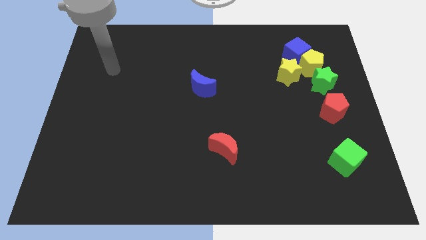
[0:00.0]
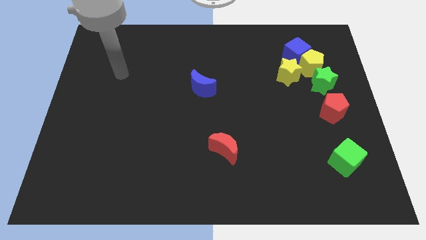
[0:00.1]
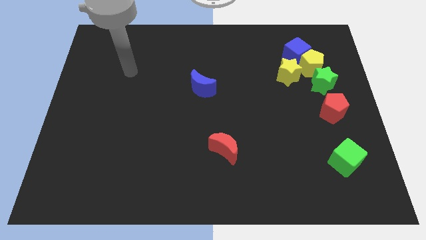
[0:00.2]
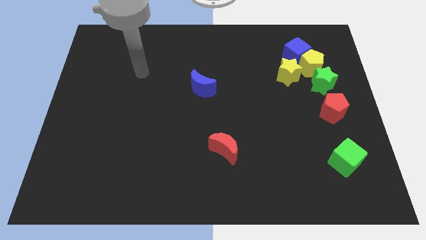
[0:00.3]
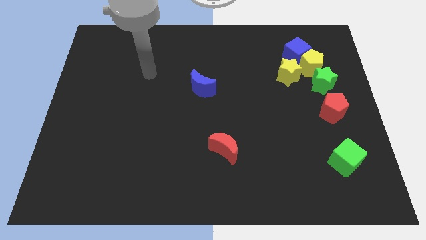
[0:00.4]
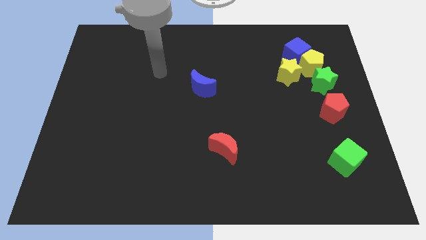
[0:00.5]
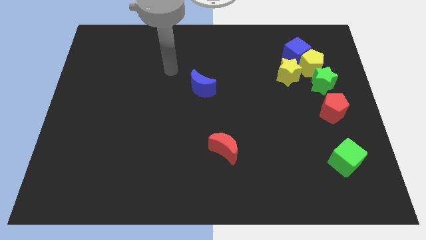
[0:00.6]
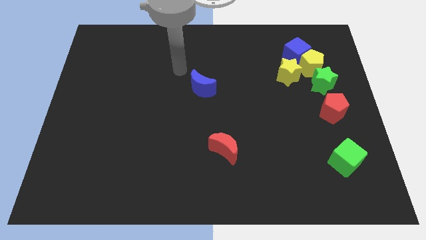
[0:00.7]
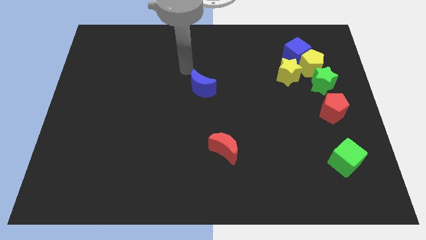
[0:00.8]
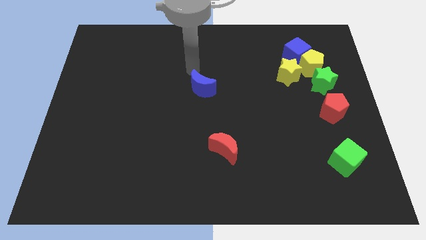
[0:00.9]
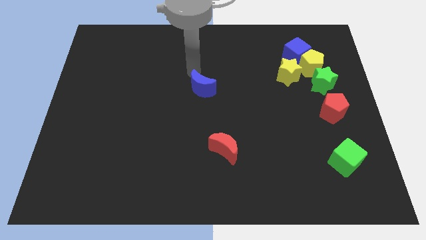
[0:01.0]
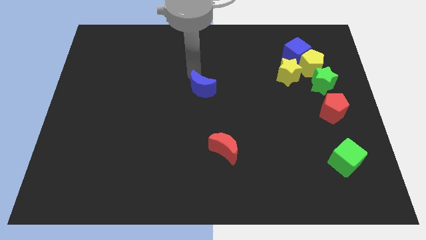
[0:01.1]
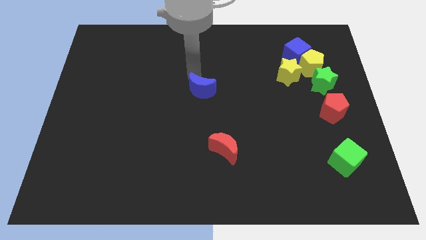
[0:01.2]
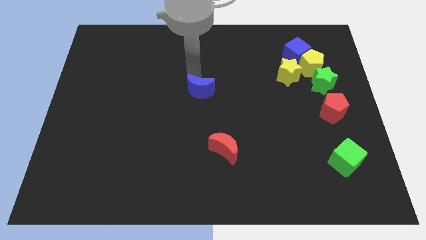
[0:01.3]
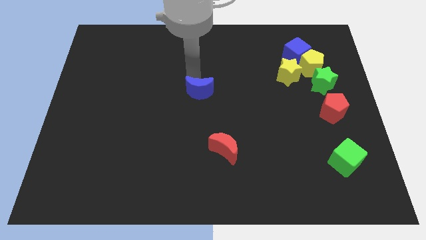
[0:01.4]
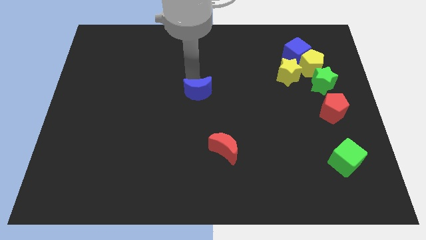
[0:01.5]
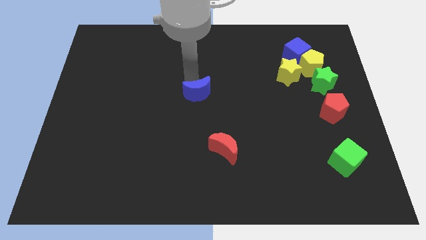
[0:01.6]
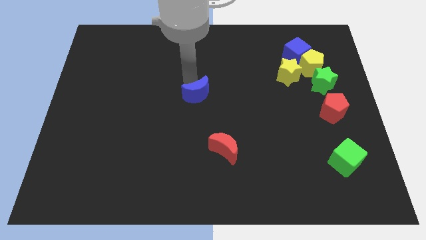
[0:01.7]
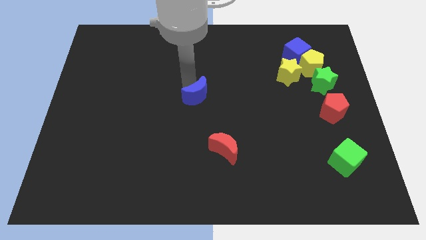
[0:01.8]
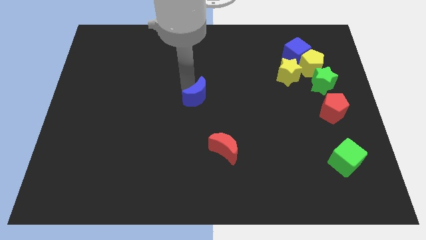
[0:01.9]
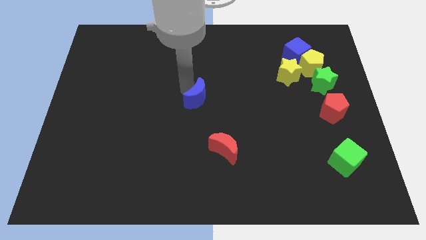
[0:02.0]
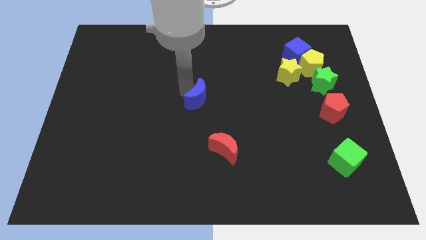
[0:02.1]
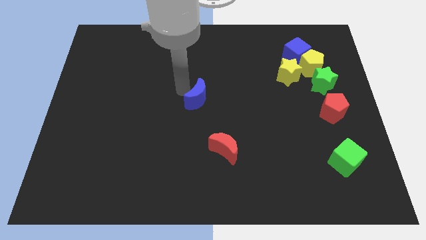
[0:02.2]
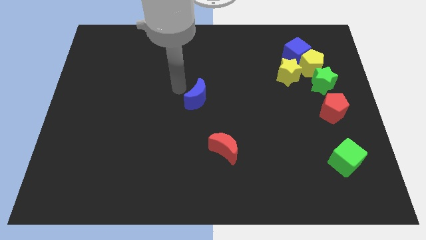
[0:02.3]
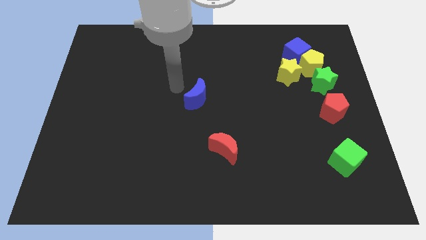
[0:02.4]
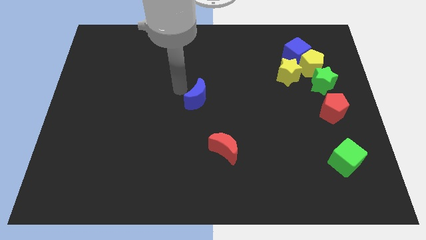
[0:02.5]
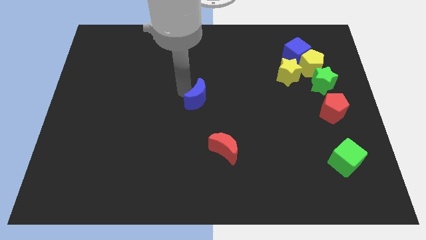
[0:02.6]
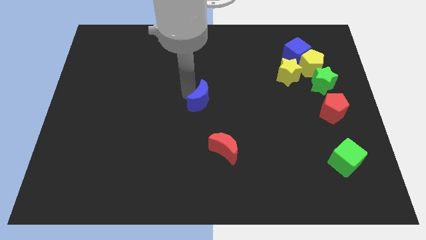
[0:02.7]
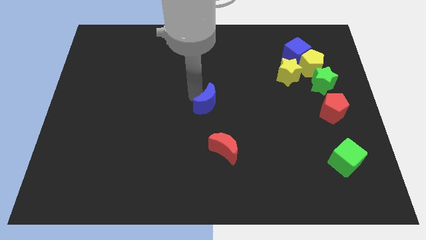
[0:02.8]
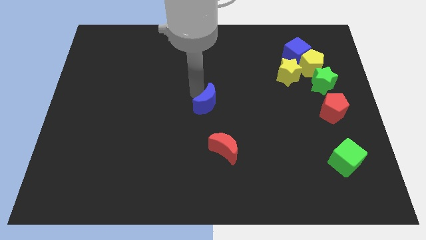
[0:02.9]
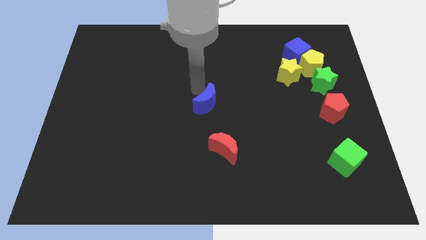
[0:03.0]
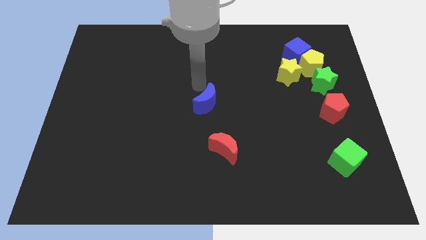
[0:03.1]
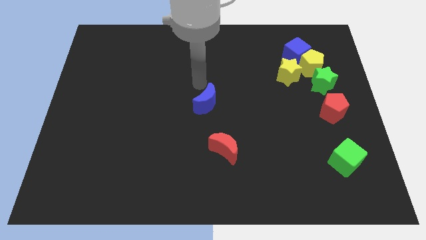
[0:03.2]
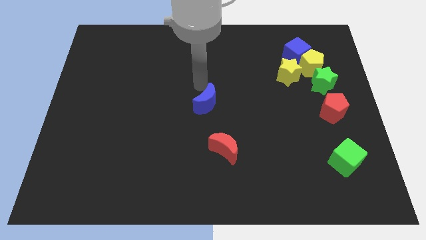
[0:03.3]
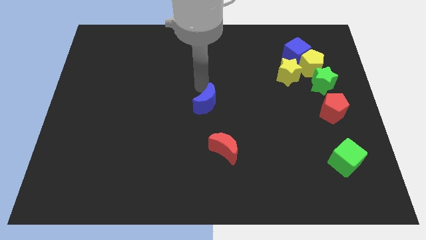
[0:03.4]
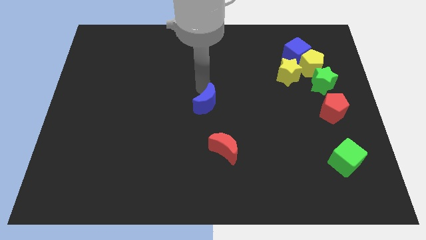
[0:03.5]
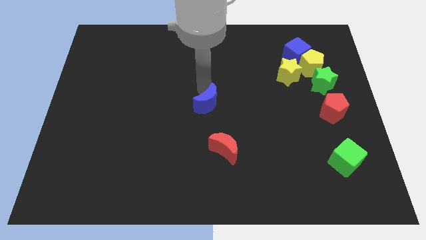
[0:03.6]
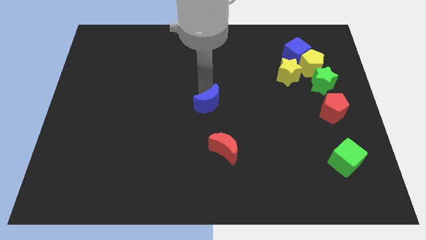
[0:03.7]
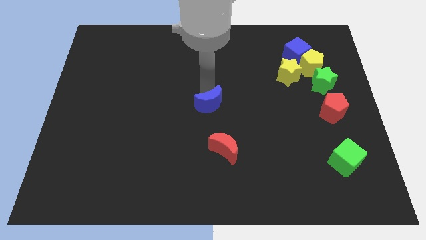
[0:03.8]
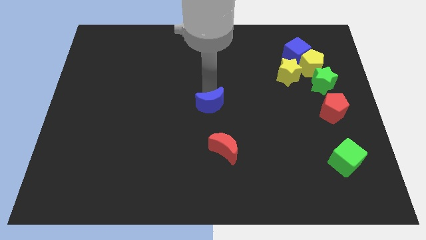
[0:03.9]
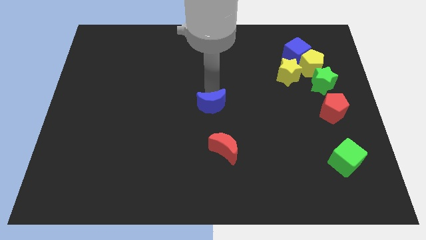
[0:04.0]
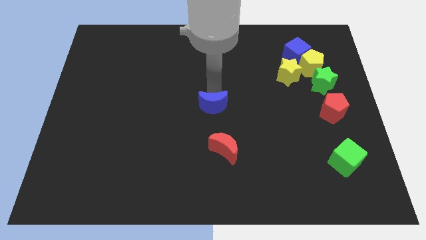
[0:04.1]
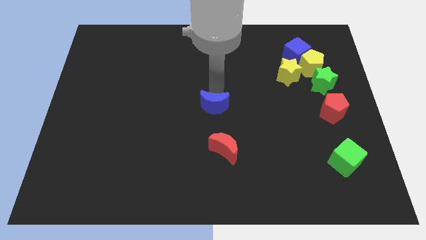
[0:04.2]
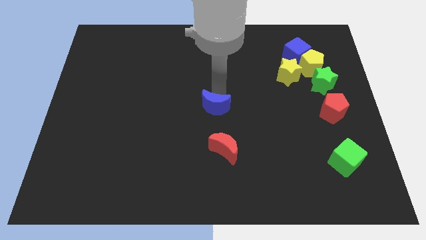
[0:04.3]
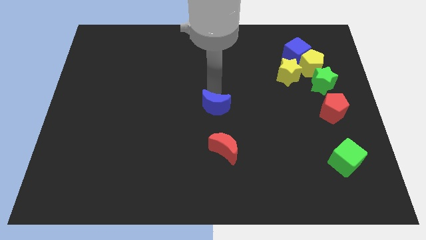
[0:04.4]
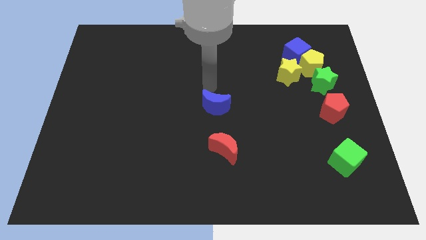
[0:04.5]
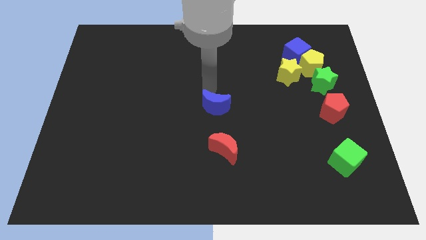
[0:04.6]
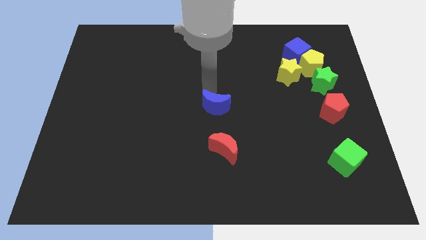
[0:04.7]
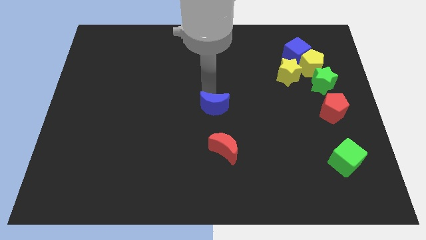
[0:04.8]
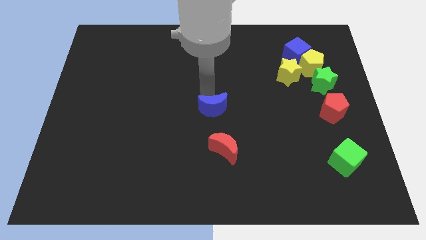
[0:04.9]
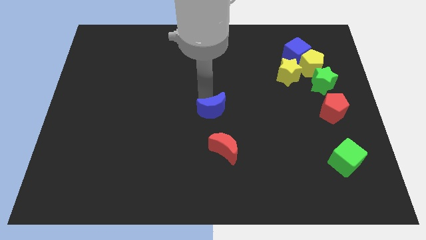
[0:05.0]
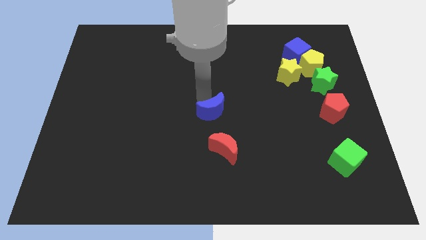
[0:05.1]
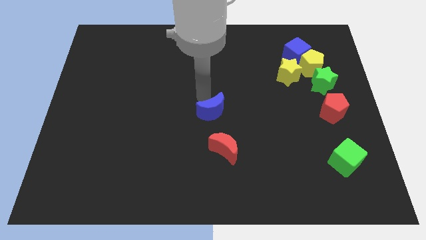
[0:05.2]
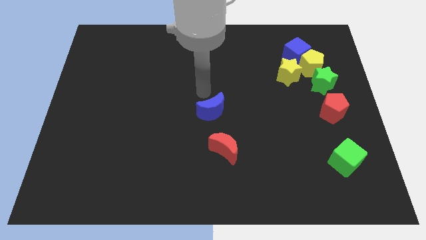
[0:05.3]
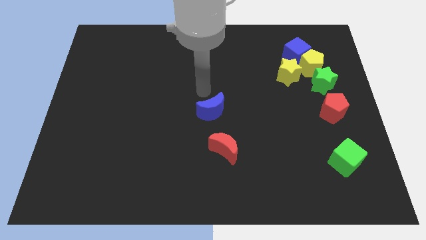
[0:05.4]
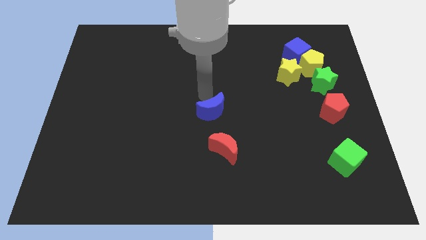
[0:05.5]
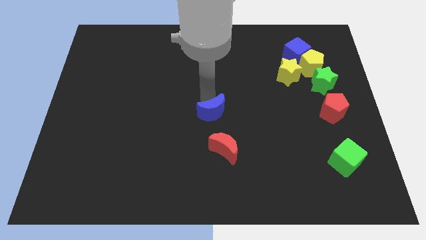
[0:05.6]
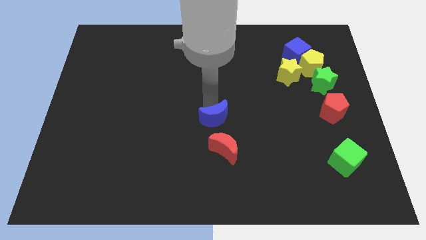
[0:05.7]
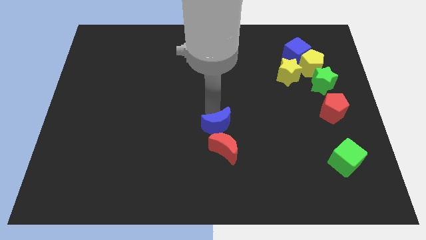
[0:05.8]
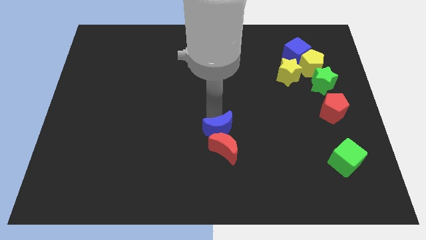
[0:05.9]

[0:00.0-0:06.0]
move the blue moon close to the red moon

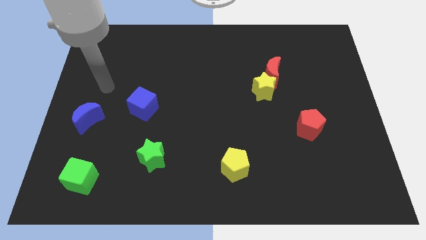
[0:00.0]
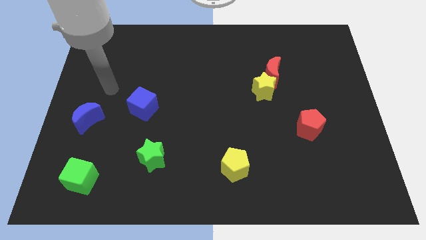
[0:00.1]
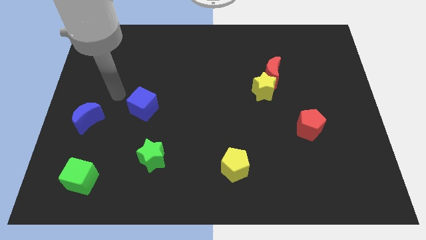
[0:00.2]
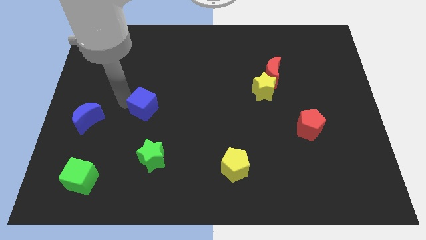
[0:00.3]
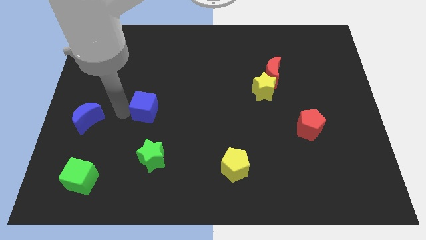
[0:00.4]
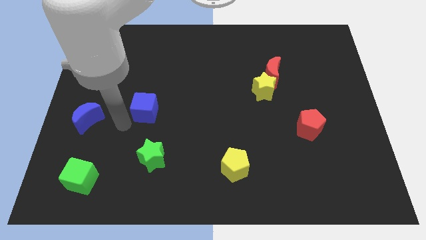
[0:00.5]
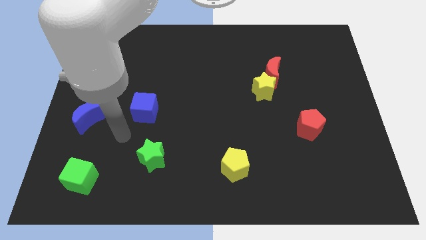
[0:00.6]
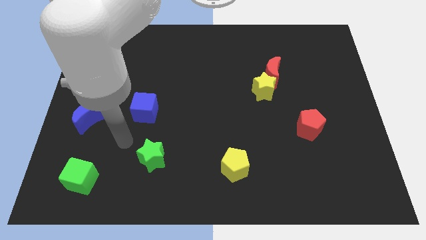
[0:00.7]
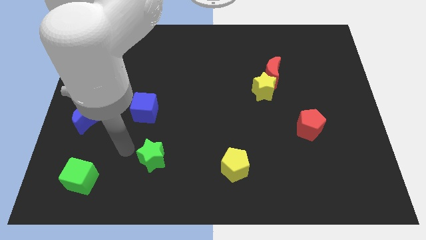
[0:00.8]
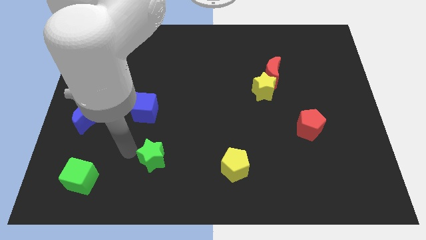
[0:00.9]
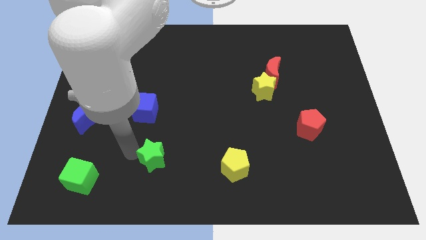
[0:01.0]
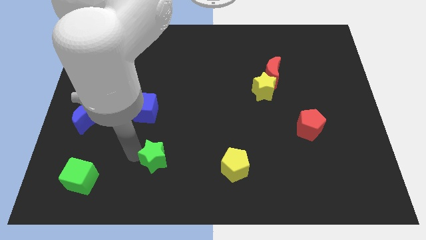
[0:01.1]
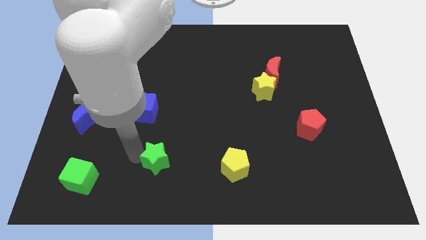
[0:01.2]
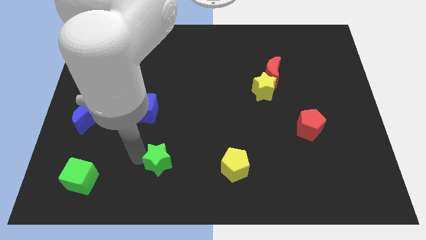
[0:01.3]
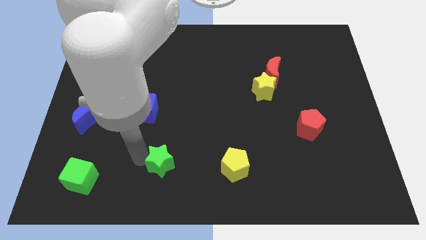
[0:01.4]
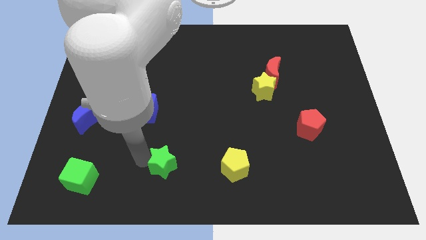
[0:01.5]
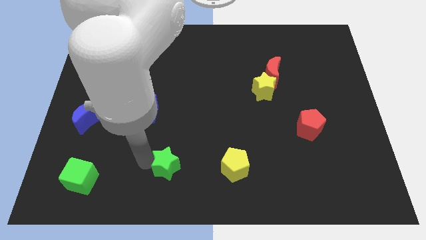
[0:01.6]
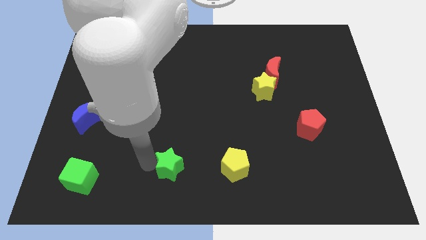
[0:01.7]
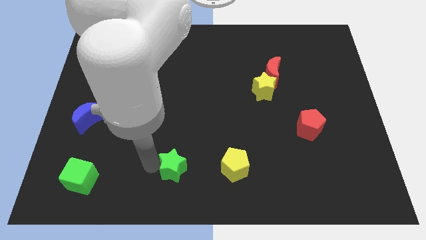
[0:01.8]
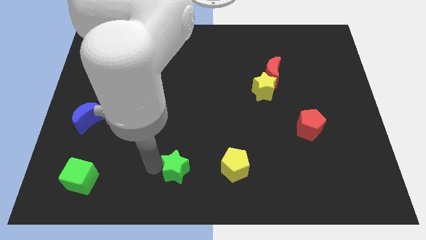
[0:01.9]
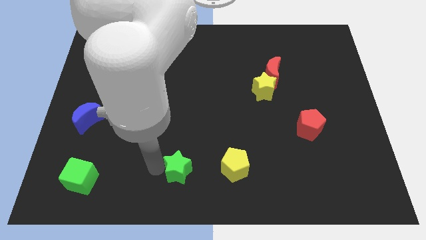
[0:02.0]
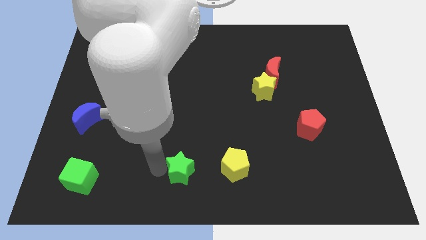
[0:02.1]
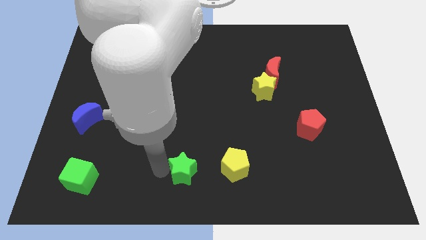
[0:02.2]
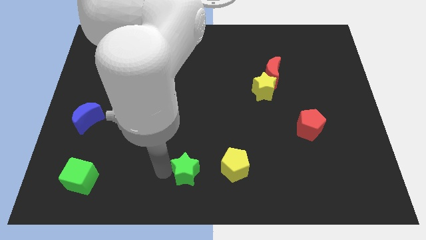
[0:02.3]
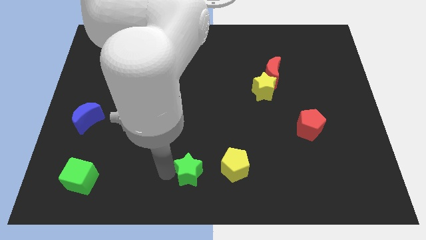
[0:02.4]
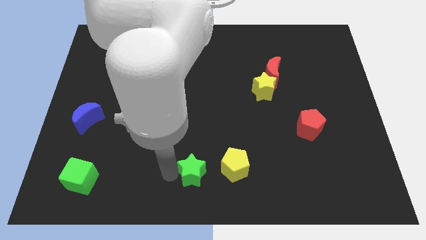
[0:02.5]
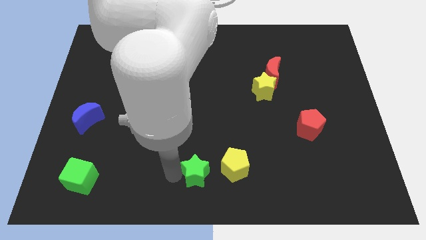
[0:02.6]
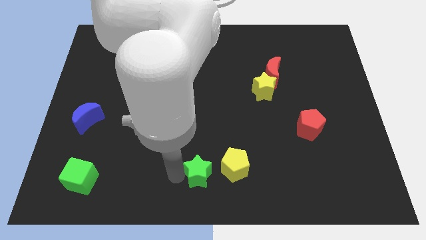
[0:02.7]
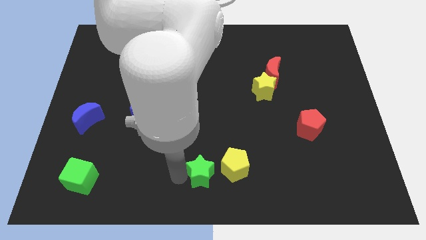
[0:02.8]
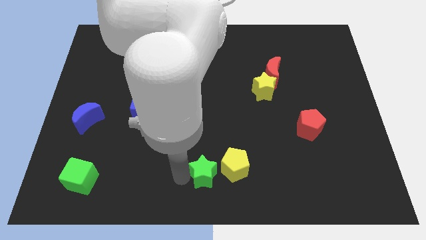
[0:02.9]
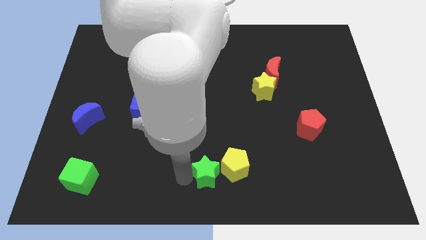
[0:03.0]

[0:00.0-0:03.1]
push the green star close to the yellow pentagon
